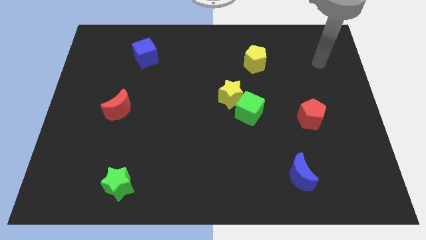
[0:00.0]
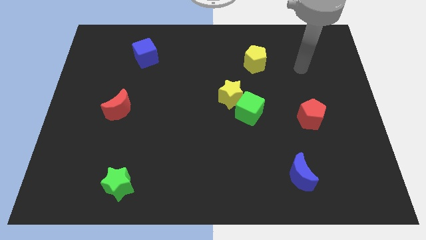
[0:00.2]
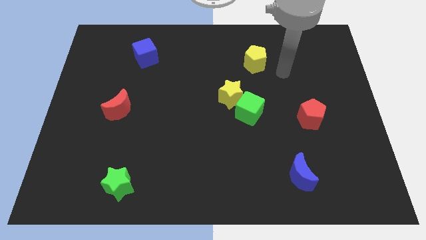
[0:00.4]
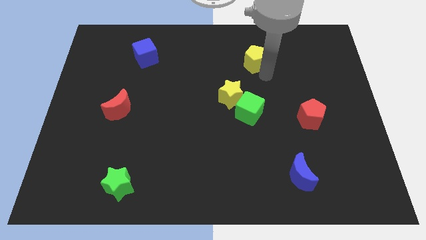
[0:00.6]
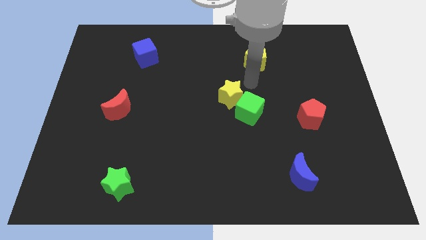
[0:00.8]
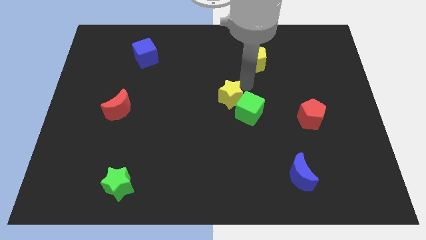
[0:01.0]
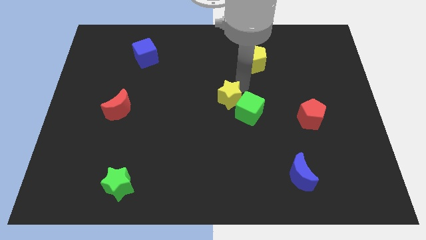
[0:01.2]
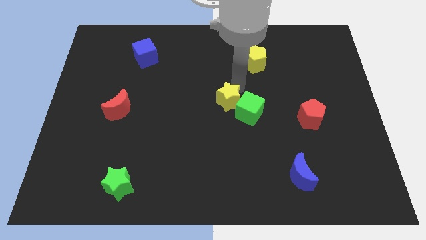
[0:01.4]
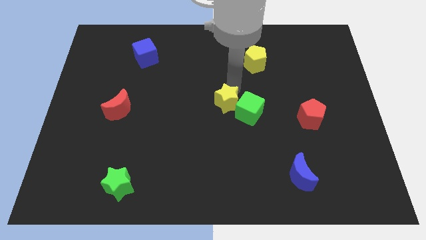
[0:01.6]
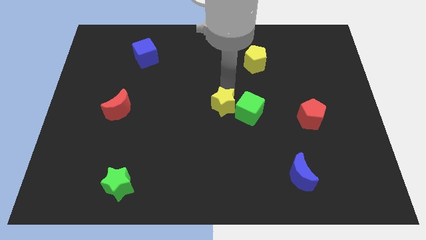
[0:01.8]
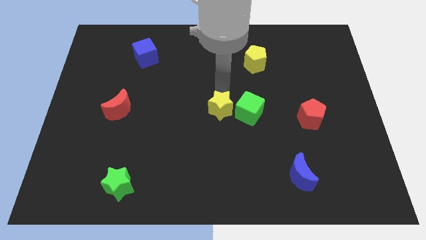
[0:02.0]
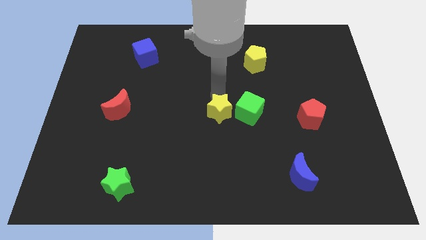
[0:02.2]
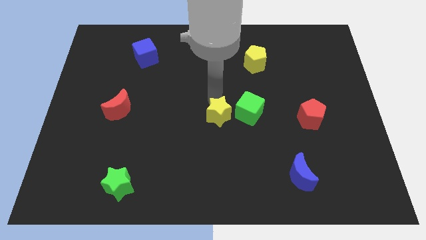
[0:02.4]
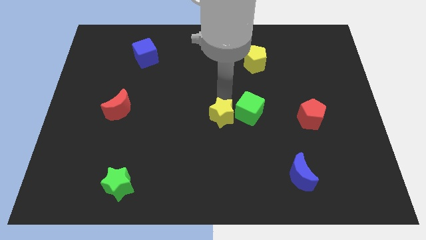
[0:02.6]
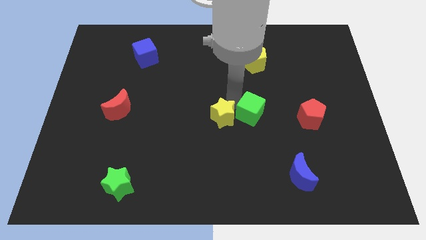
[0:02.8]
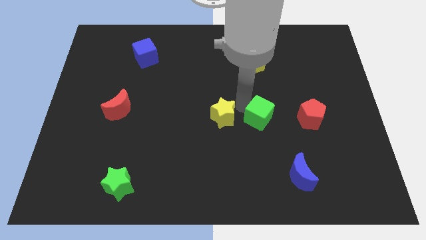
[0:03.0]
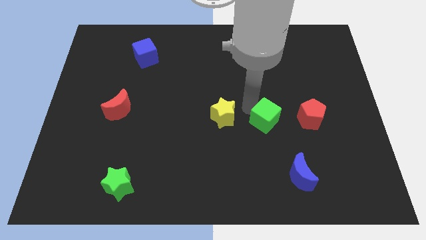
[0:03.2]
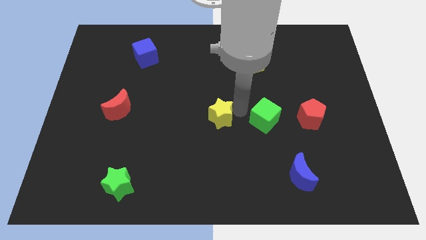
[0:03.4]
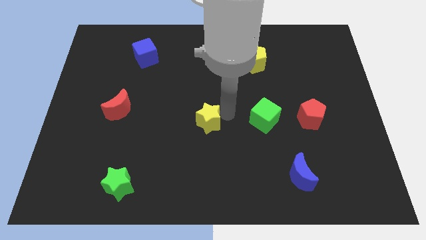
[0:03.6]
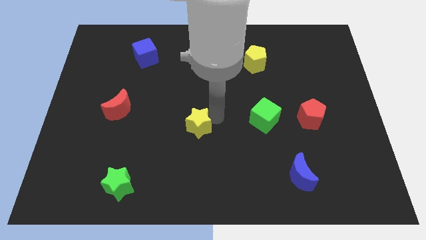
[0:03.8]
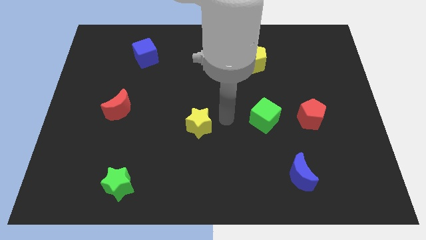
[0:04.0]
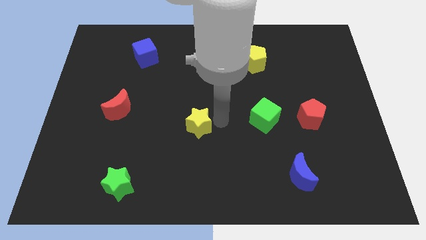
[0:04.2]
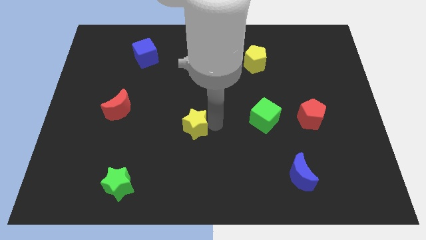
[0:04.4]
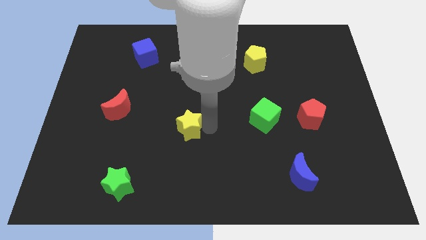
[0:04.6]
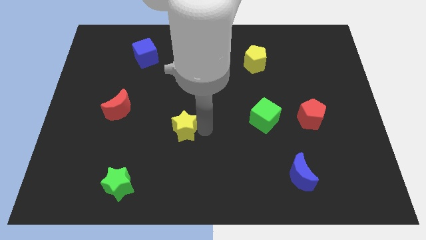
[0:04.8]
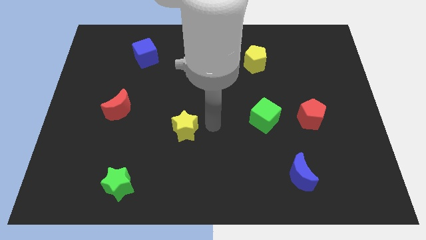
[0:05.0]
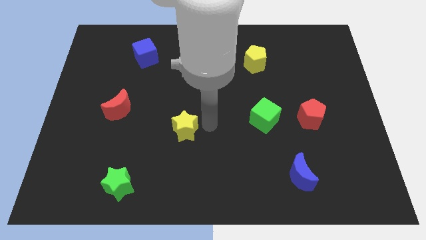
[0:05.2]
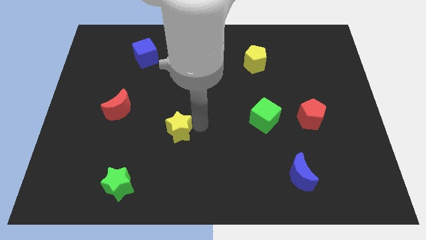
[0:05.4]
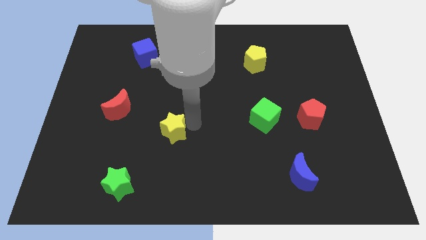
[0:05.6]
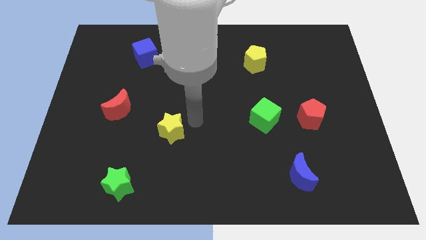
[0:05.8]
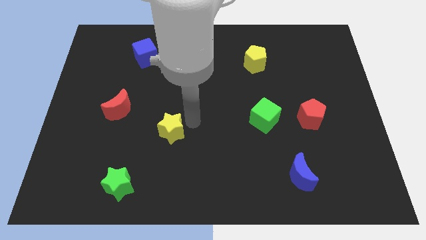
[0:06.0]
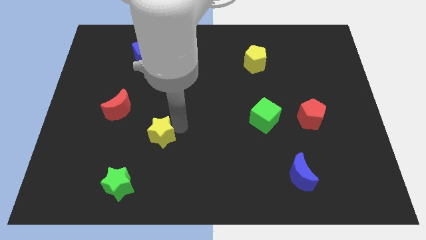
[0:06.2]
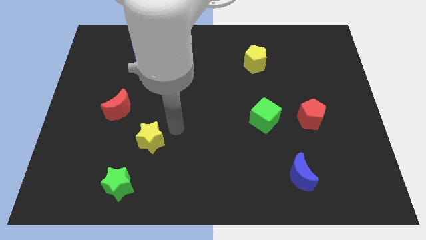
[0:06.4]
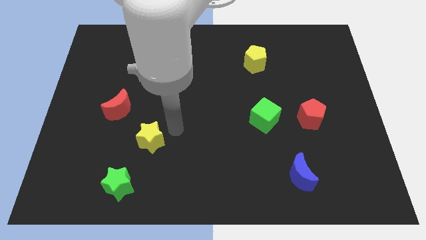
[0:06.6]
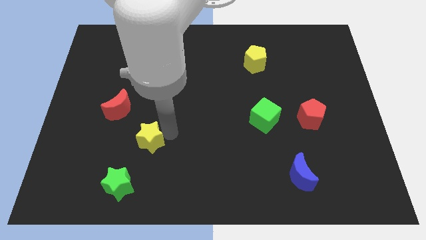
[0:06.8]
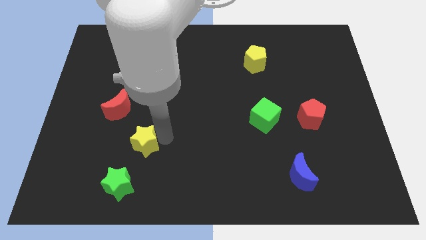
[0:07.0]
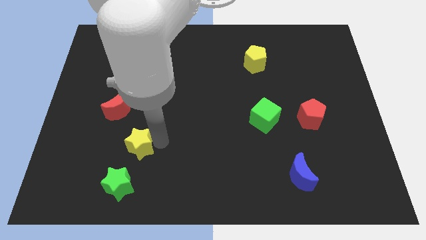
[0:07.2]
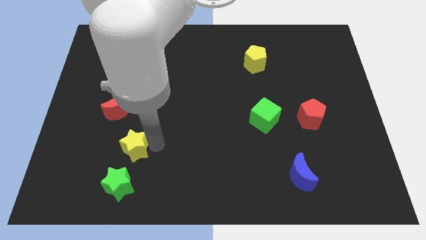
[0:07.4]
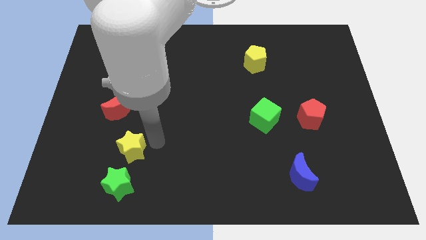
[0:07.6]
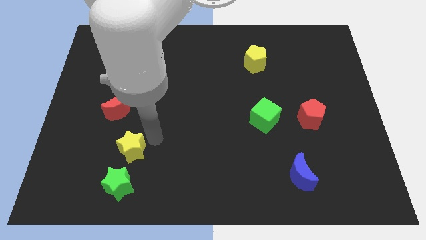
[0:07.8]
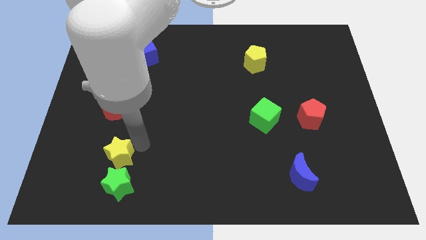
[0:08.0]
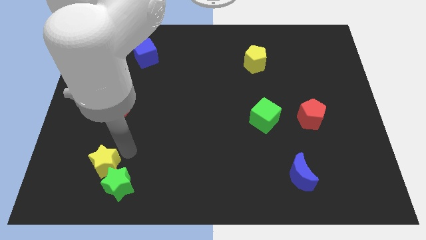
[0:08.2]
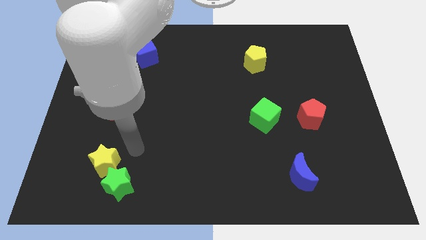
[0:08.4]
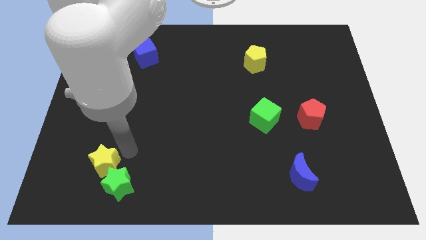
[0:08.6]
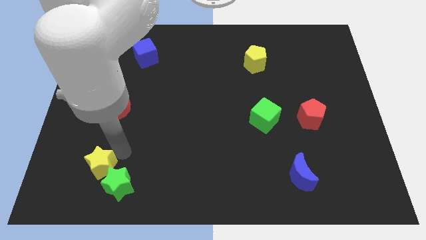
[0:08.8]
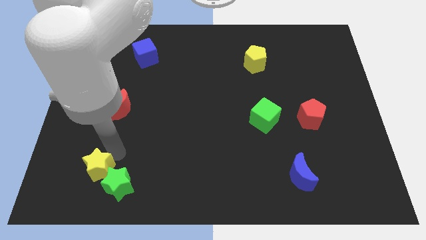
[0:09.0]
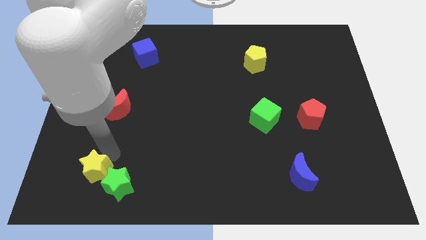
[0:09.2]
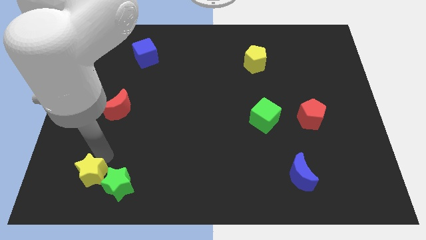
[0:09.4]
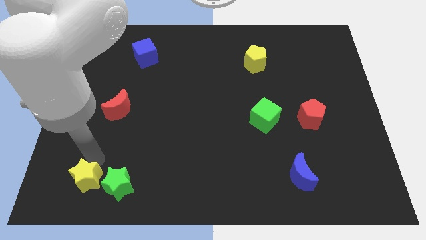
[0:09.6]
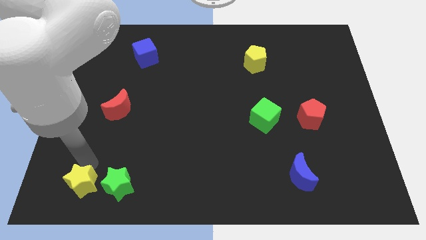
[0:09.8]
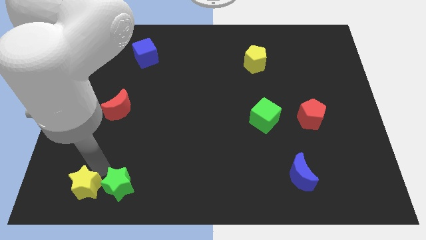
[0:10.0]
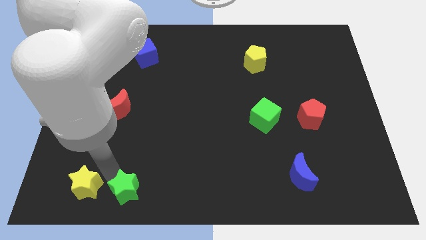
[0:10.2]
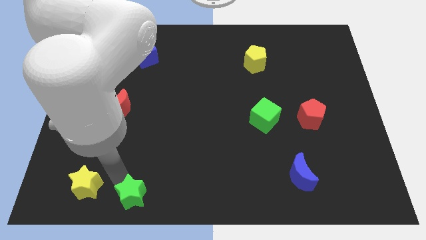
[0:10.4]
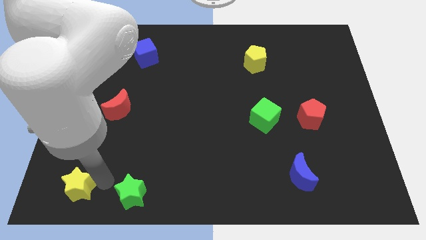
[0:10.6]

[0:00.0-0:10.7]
push the yellow star to the bottom left
